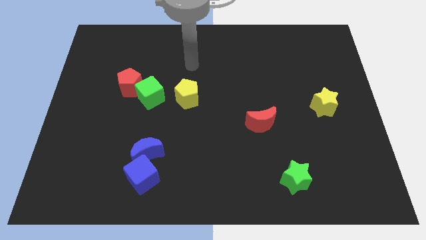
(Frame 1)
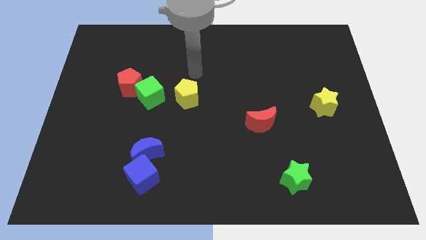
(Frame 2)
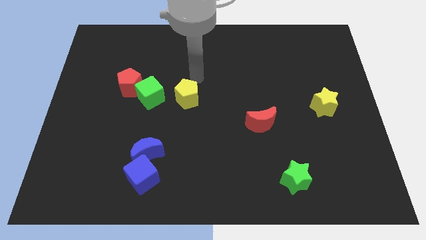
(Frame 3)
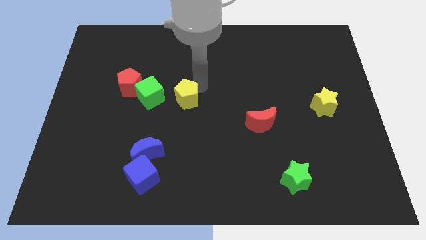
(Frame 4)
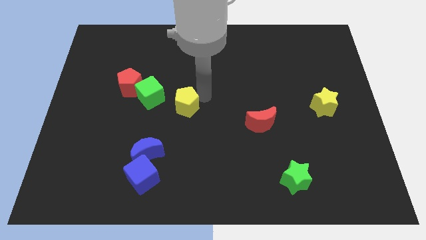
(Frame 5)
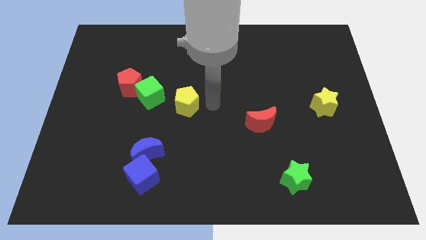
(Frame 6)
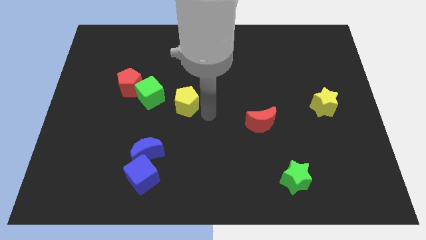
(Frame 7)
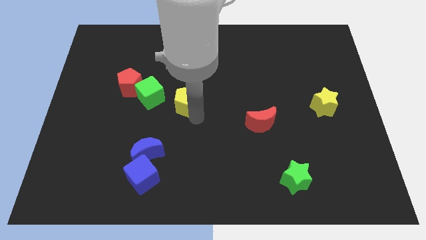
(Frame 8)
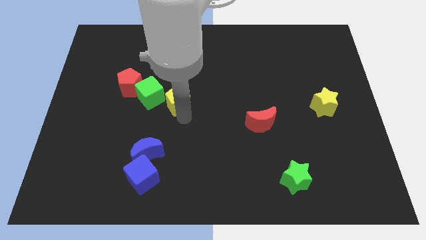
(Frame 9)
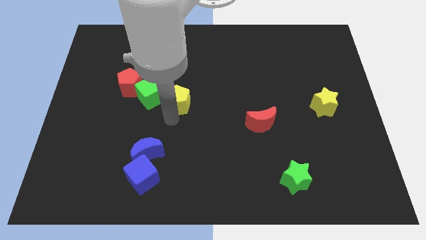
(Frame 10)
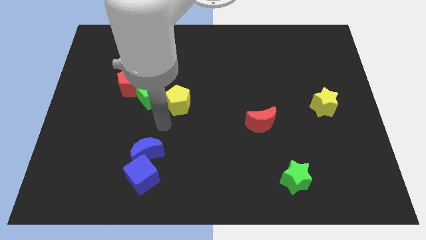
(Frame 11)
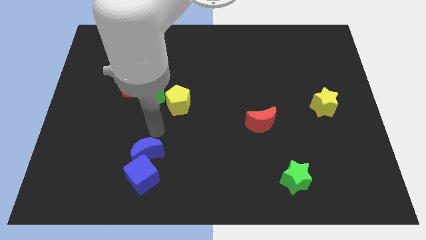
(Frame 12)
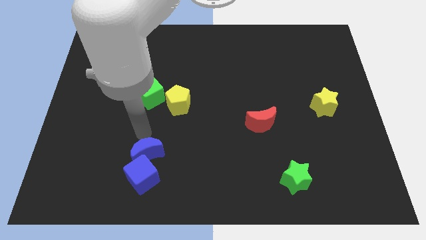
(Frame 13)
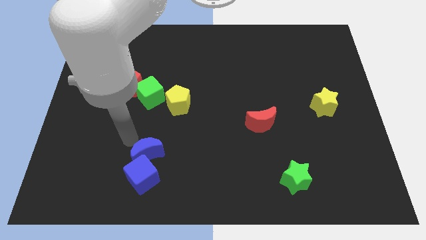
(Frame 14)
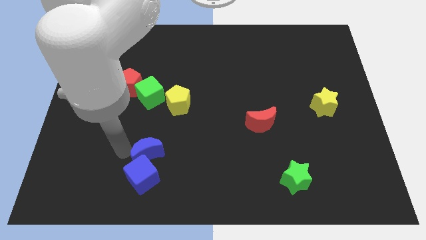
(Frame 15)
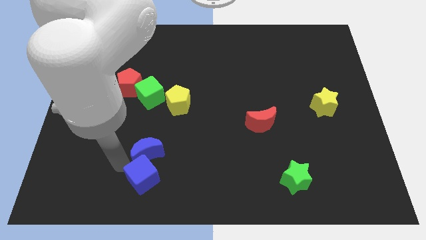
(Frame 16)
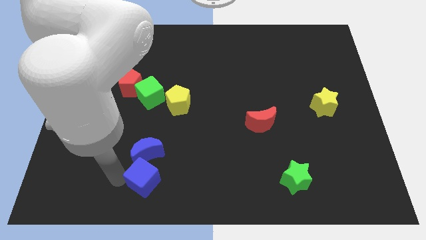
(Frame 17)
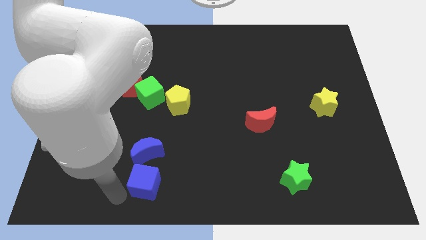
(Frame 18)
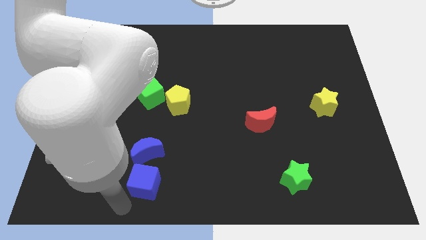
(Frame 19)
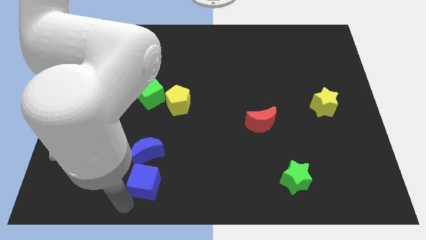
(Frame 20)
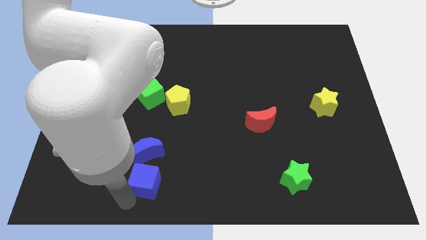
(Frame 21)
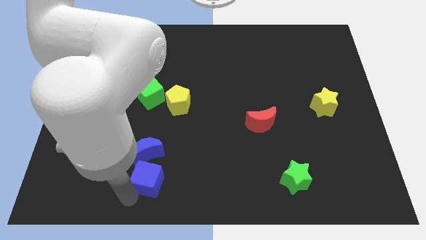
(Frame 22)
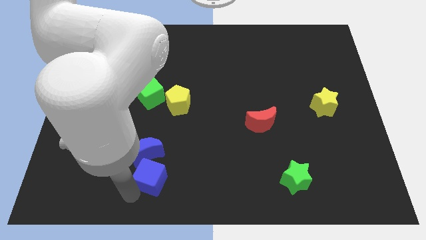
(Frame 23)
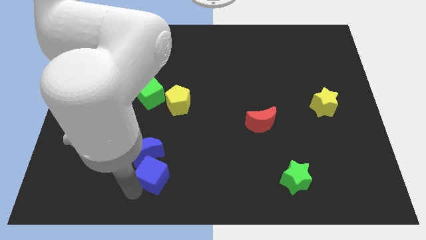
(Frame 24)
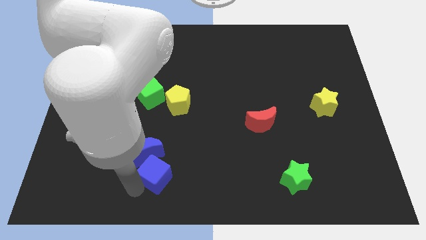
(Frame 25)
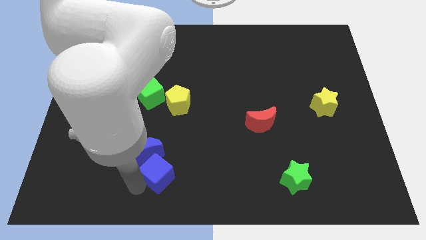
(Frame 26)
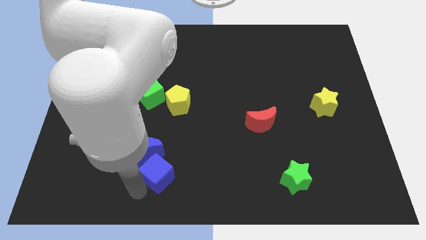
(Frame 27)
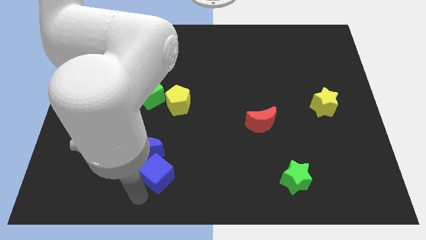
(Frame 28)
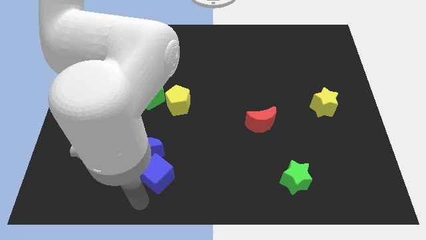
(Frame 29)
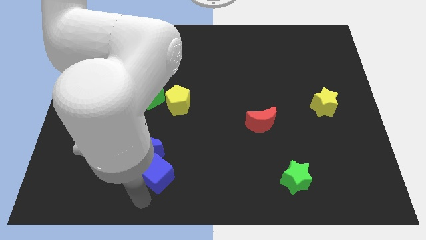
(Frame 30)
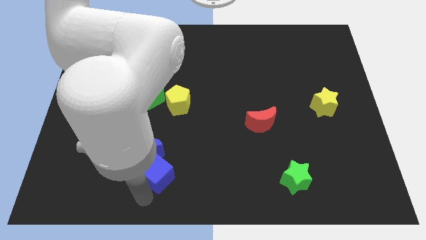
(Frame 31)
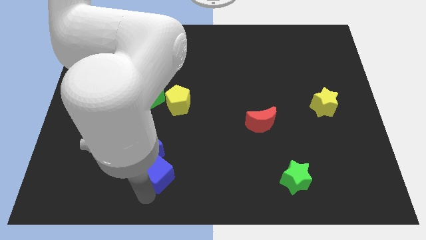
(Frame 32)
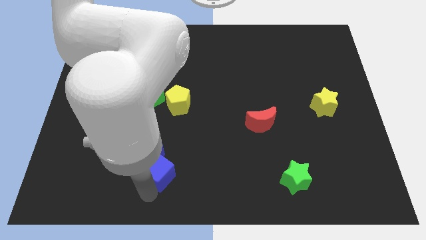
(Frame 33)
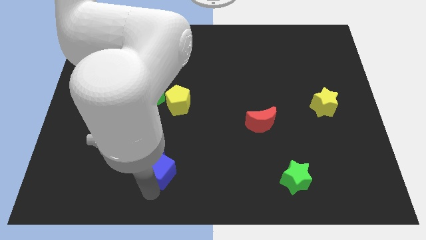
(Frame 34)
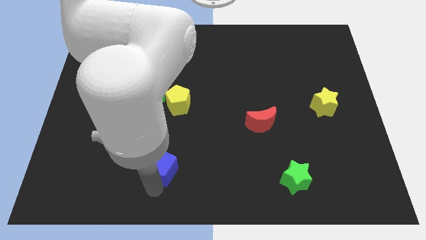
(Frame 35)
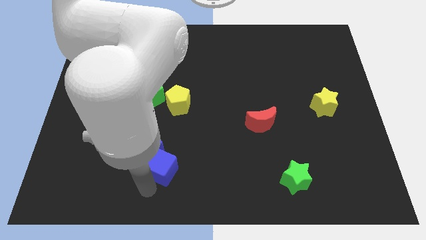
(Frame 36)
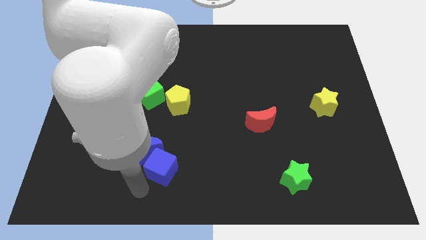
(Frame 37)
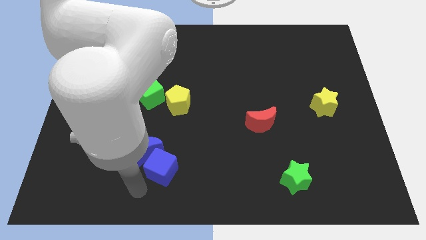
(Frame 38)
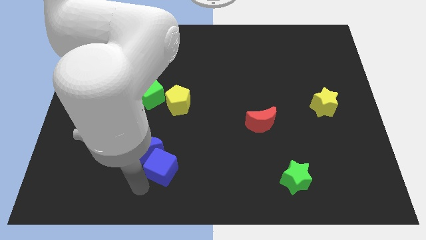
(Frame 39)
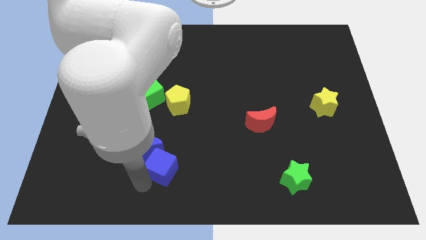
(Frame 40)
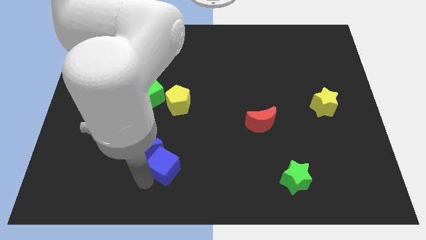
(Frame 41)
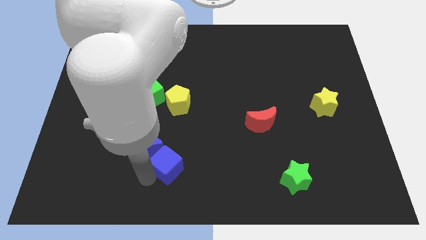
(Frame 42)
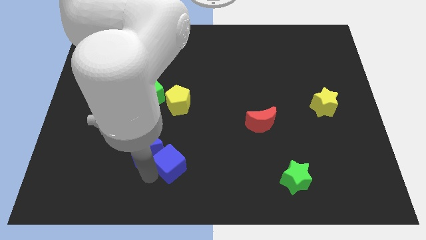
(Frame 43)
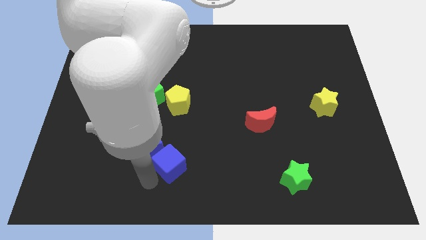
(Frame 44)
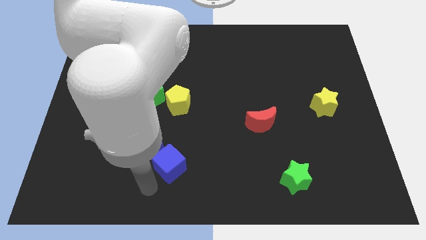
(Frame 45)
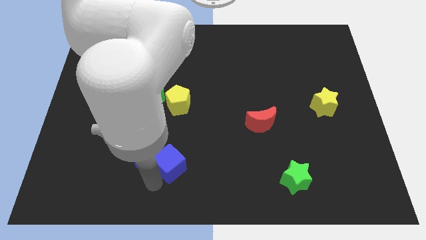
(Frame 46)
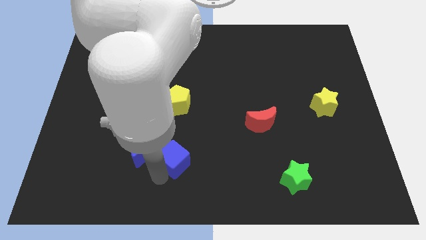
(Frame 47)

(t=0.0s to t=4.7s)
move the blue cube a little bit upwards and right diagonally

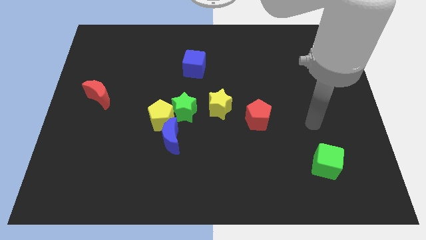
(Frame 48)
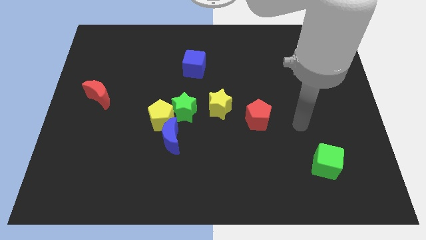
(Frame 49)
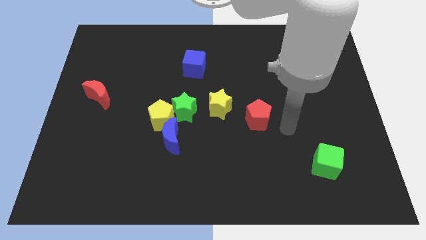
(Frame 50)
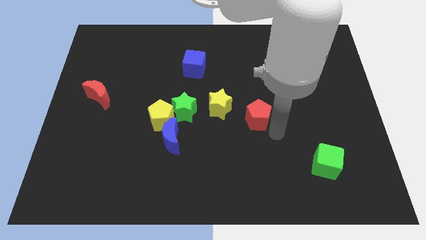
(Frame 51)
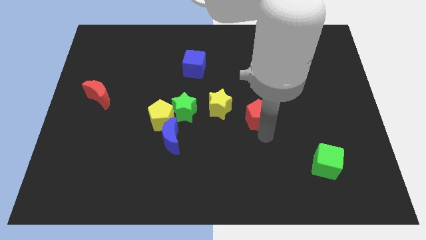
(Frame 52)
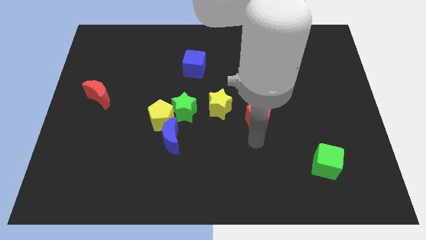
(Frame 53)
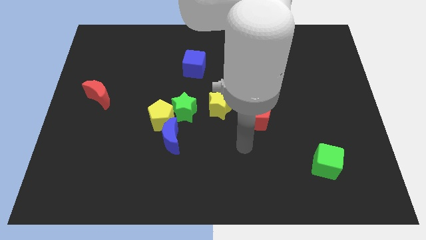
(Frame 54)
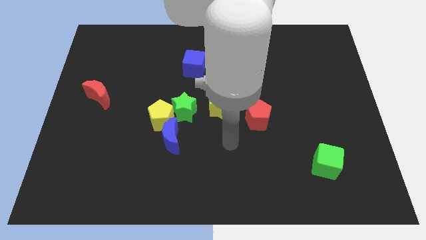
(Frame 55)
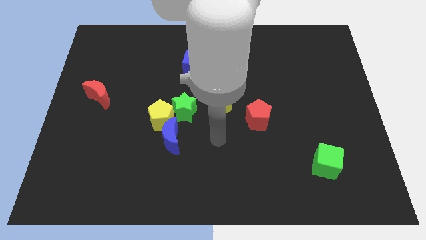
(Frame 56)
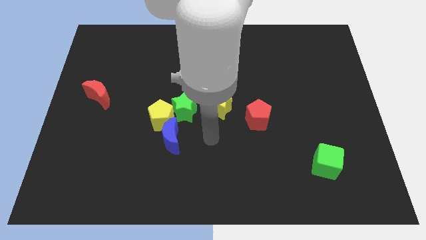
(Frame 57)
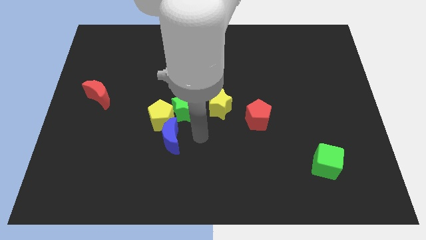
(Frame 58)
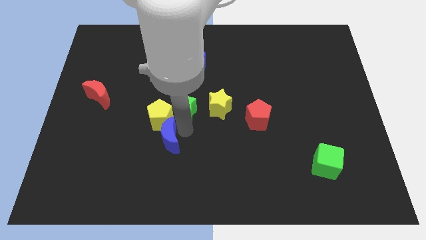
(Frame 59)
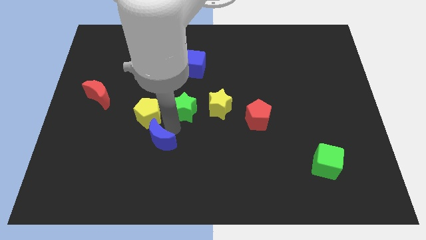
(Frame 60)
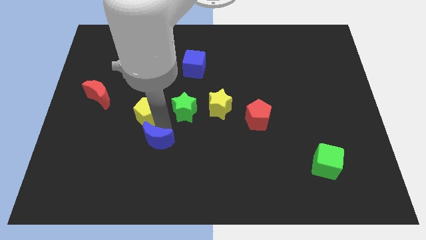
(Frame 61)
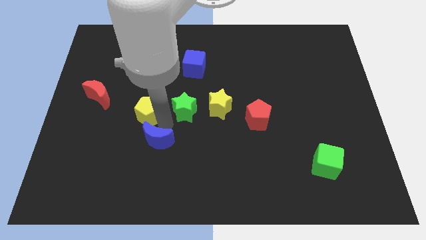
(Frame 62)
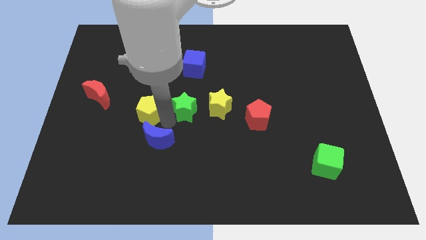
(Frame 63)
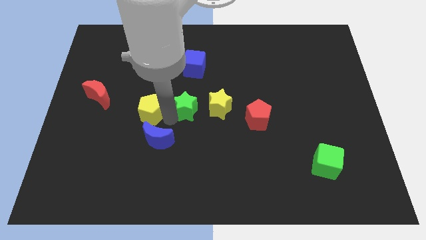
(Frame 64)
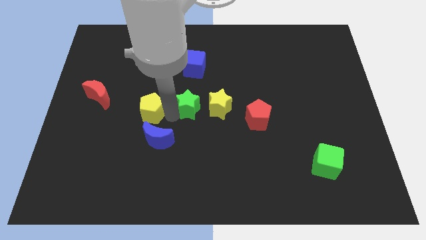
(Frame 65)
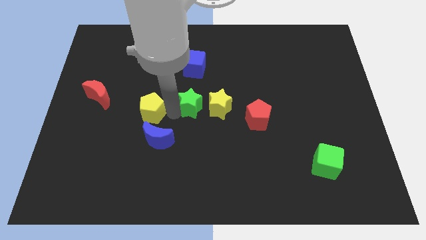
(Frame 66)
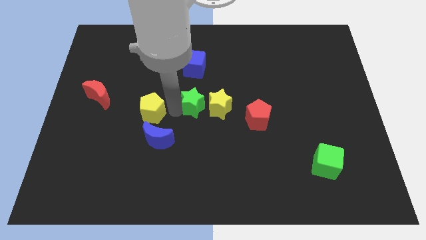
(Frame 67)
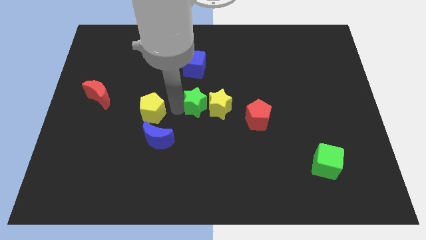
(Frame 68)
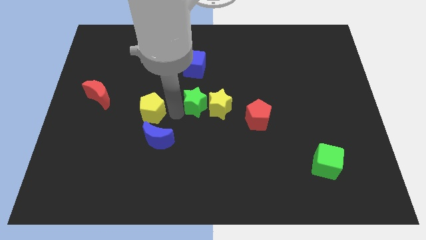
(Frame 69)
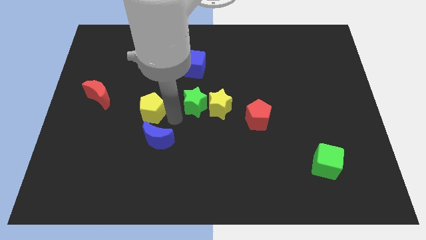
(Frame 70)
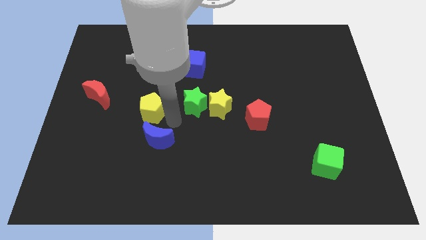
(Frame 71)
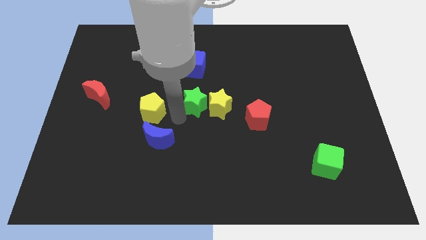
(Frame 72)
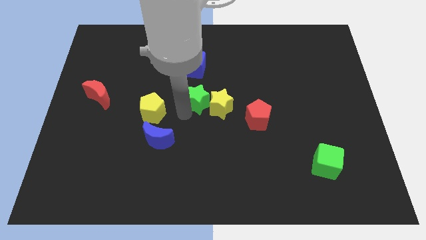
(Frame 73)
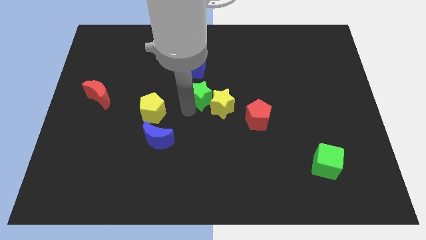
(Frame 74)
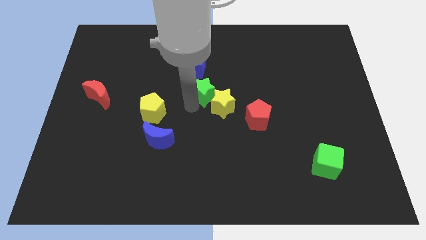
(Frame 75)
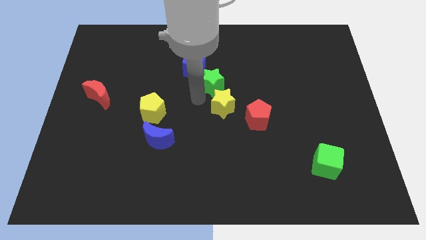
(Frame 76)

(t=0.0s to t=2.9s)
slightly slide the green star up and then right

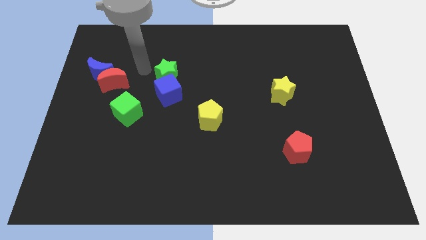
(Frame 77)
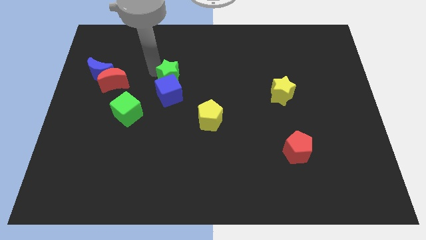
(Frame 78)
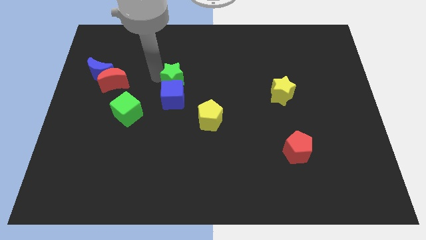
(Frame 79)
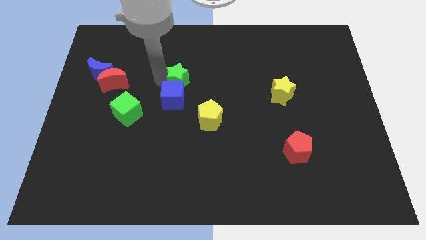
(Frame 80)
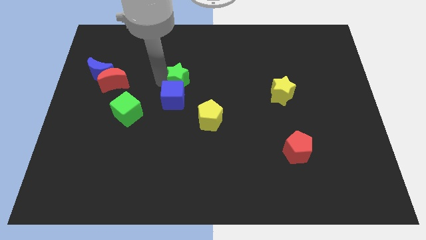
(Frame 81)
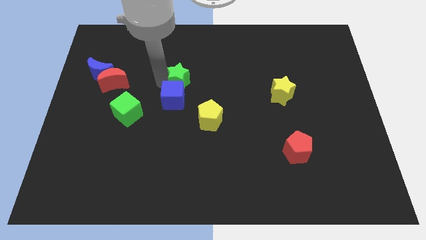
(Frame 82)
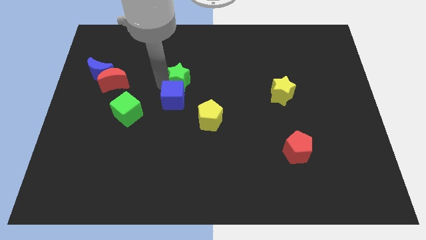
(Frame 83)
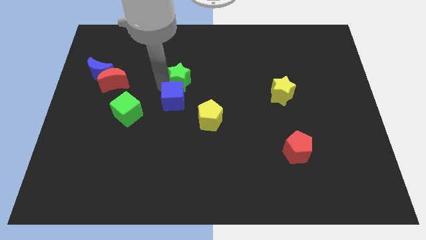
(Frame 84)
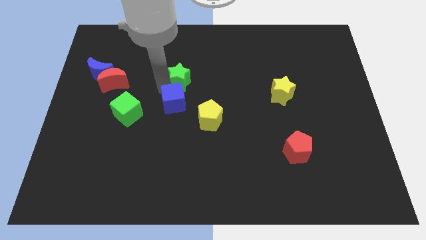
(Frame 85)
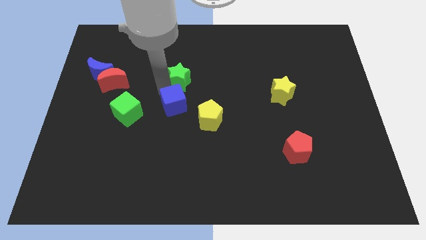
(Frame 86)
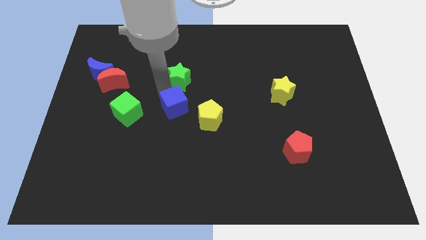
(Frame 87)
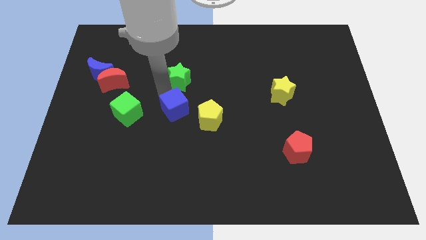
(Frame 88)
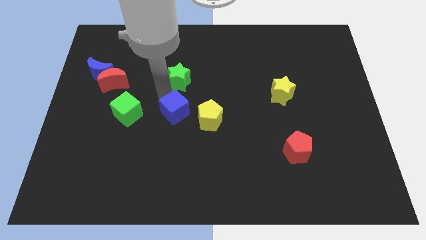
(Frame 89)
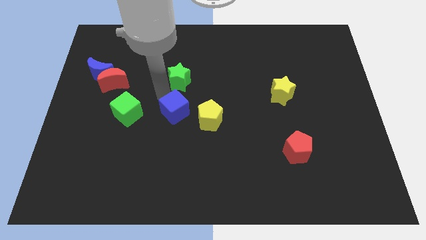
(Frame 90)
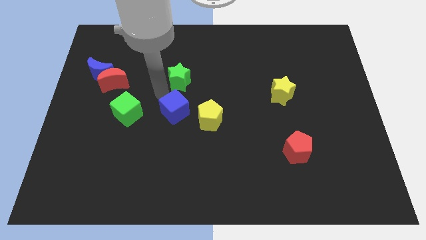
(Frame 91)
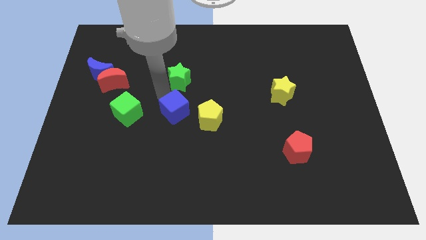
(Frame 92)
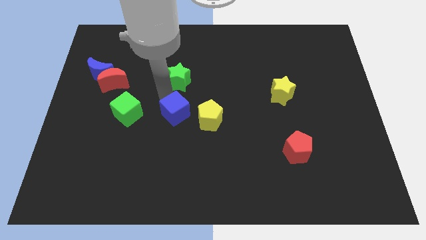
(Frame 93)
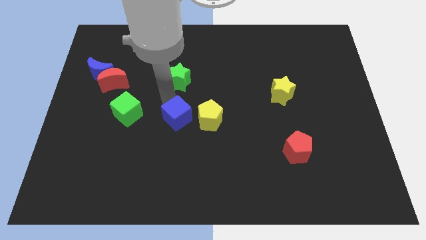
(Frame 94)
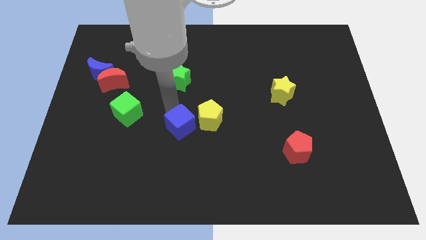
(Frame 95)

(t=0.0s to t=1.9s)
slide the blue cube somewhat down and then right
